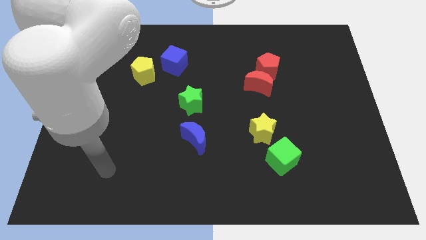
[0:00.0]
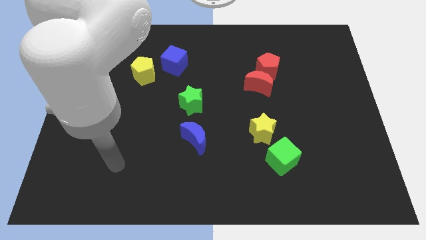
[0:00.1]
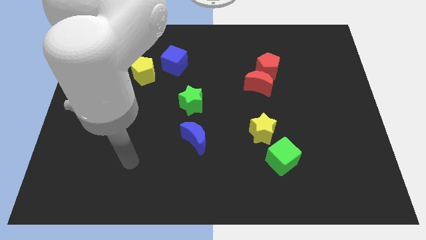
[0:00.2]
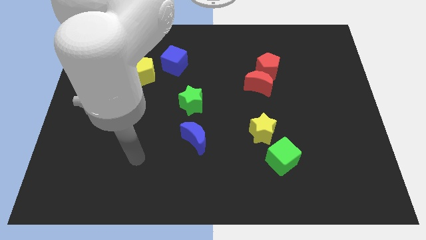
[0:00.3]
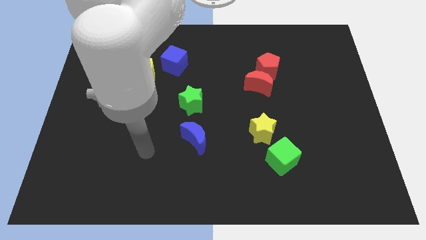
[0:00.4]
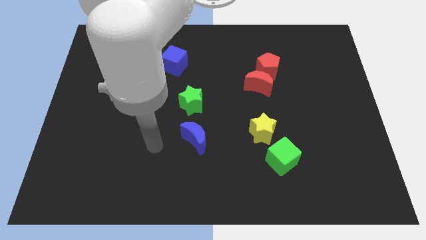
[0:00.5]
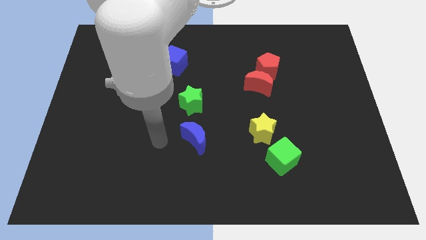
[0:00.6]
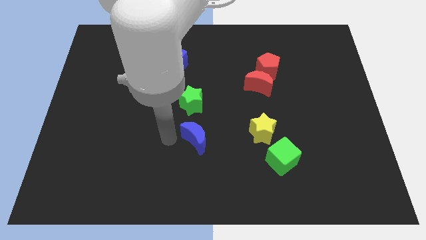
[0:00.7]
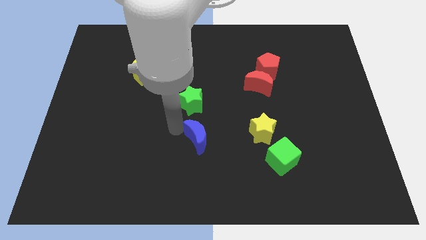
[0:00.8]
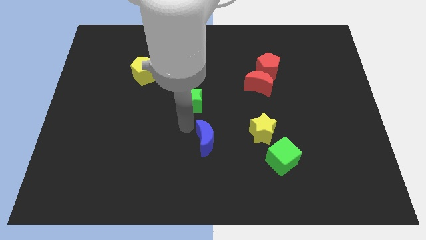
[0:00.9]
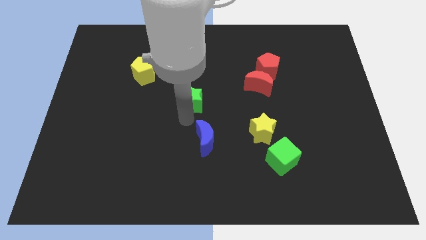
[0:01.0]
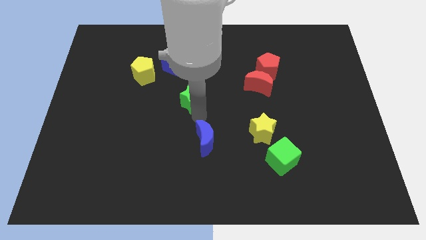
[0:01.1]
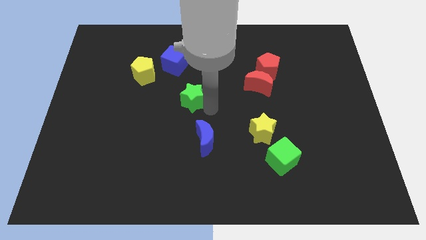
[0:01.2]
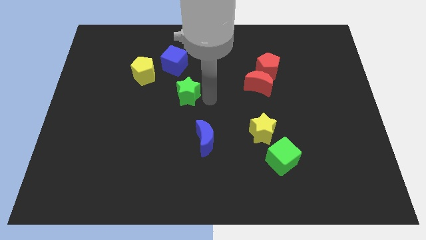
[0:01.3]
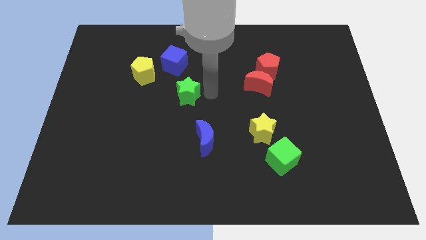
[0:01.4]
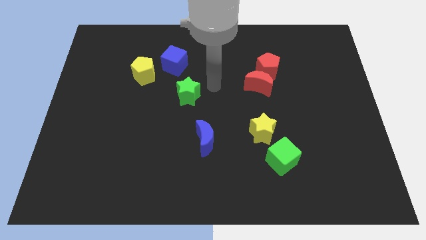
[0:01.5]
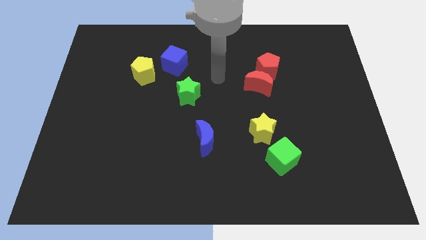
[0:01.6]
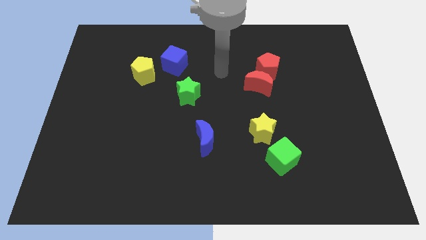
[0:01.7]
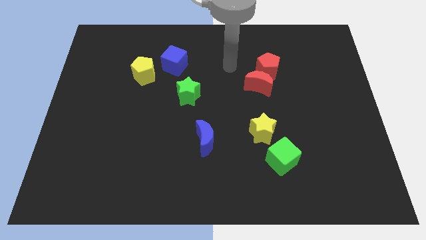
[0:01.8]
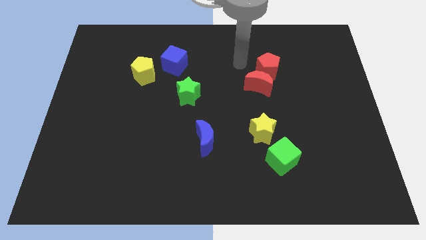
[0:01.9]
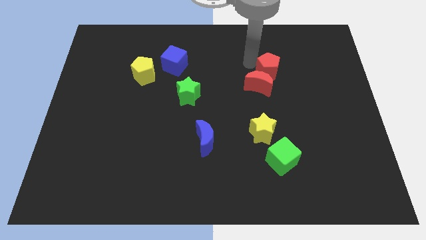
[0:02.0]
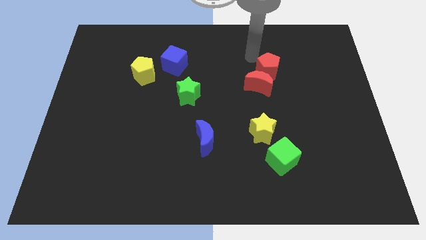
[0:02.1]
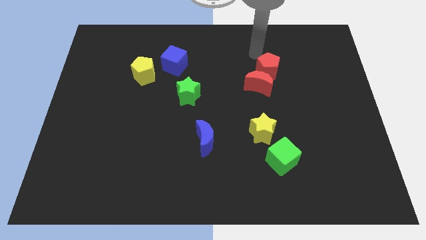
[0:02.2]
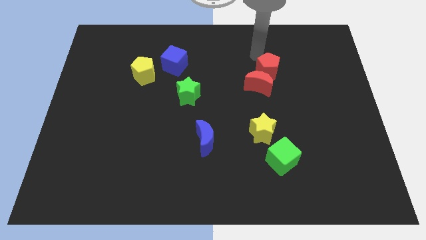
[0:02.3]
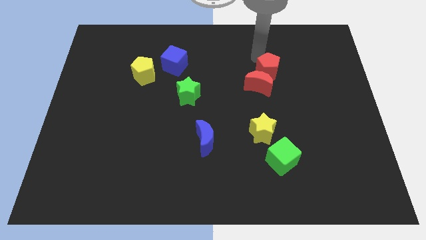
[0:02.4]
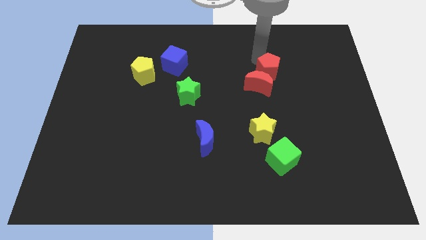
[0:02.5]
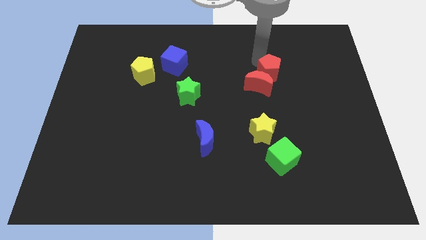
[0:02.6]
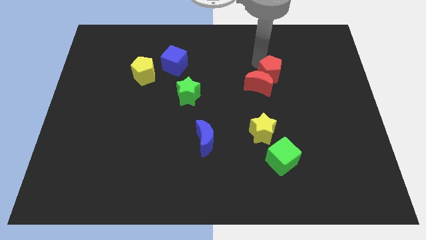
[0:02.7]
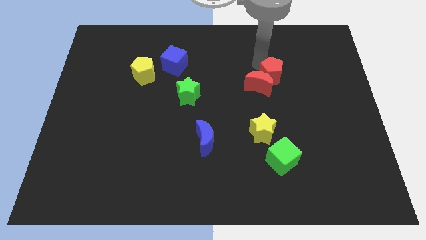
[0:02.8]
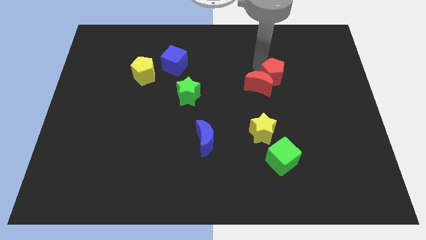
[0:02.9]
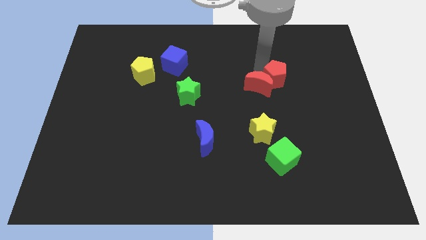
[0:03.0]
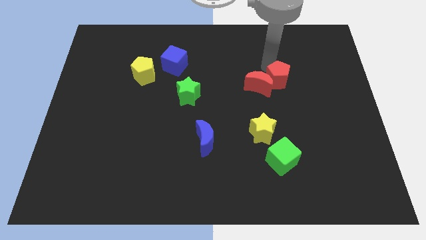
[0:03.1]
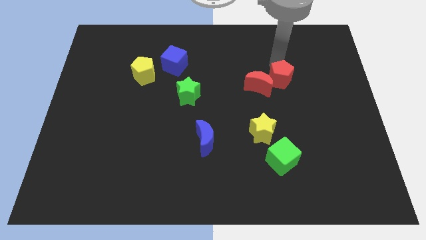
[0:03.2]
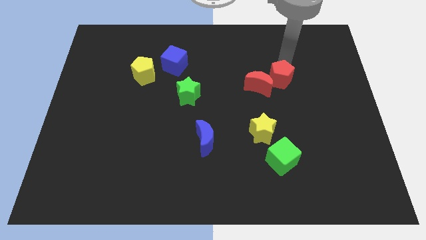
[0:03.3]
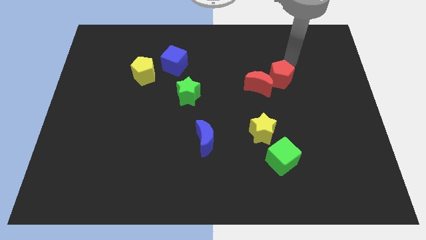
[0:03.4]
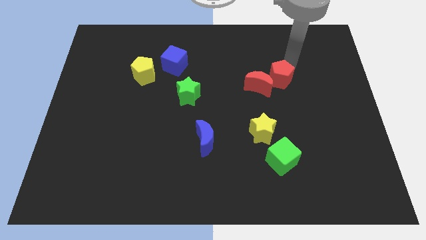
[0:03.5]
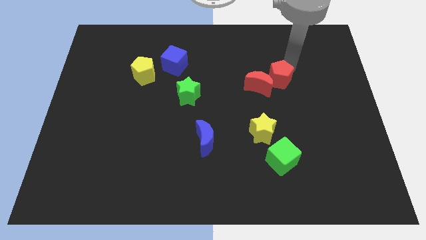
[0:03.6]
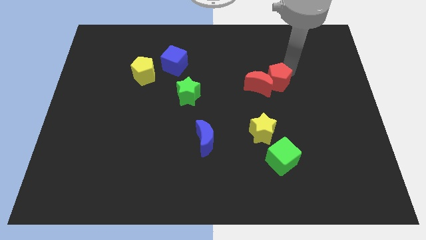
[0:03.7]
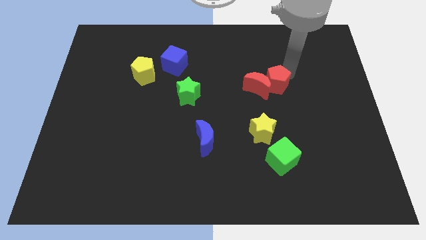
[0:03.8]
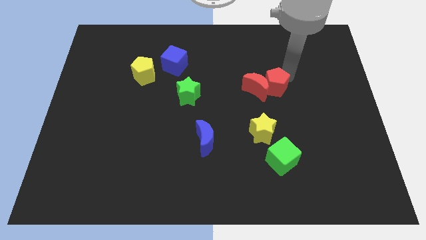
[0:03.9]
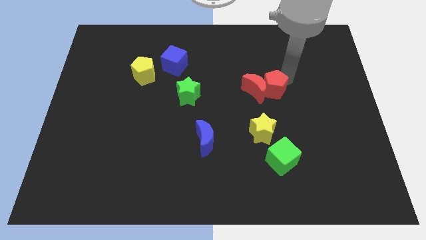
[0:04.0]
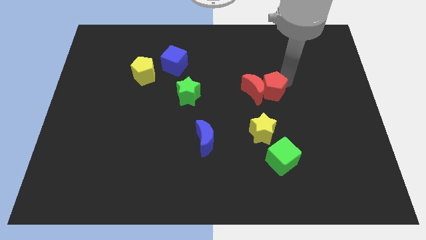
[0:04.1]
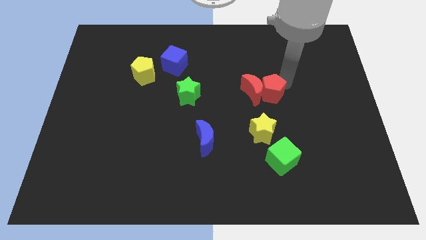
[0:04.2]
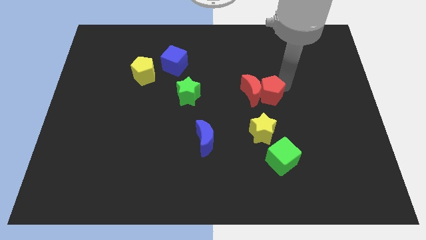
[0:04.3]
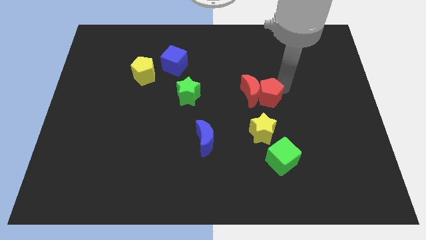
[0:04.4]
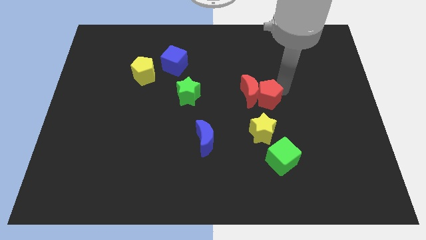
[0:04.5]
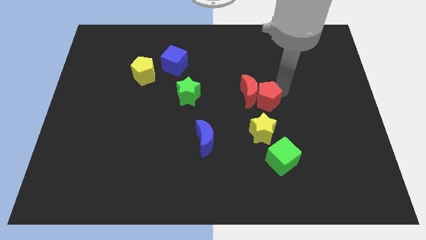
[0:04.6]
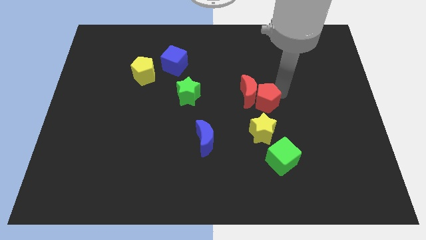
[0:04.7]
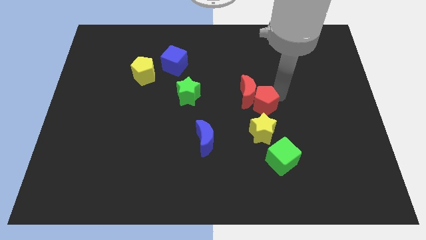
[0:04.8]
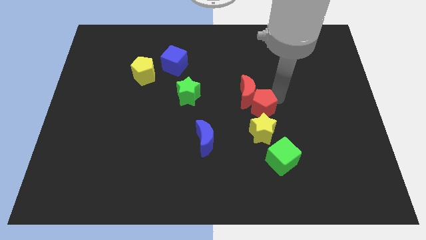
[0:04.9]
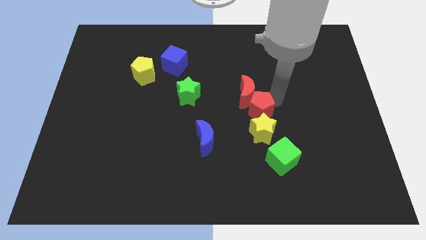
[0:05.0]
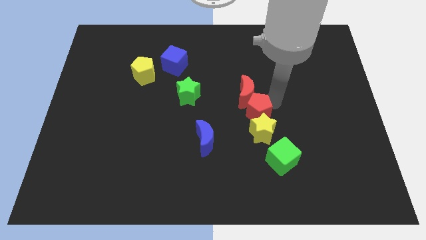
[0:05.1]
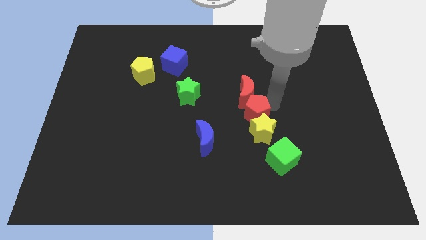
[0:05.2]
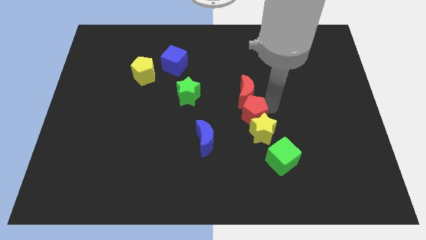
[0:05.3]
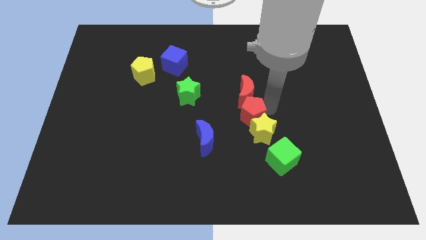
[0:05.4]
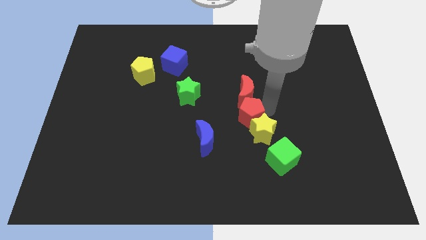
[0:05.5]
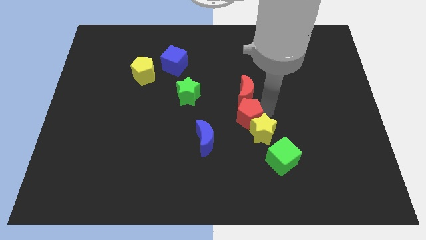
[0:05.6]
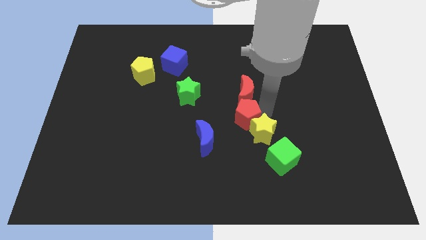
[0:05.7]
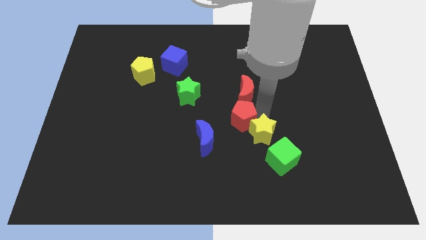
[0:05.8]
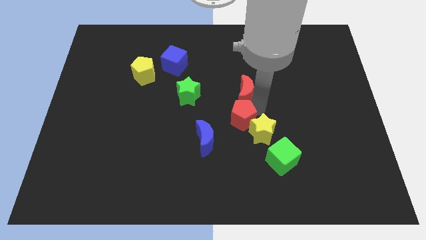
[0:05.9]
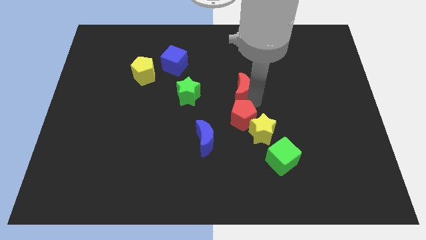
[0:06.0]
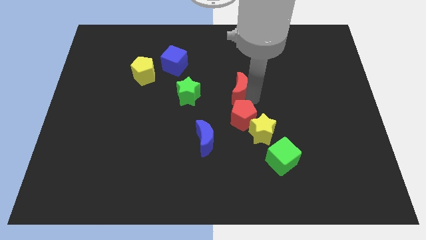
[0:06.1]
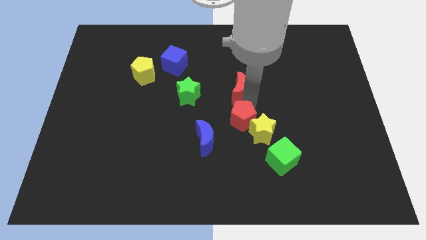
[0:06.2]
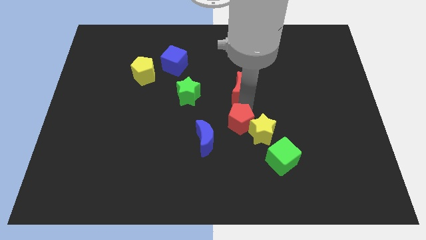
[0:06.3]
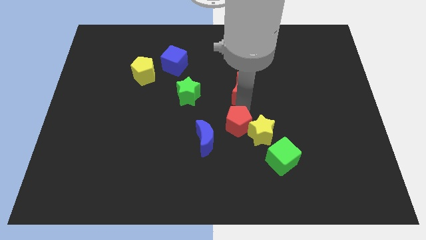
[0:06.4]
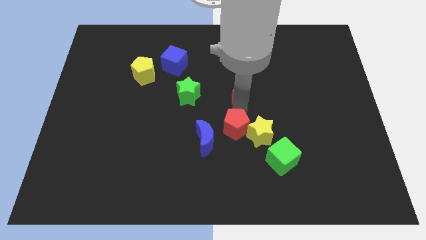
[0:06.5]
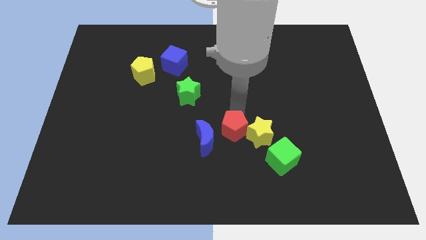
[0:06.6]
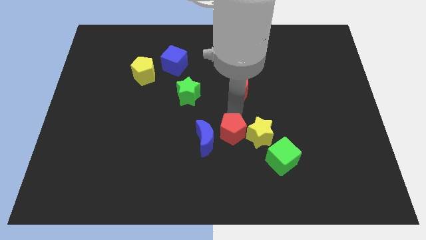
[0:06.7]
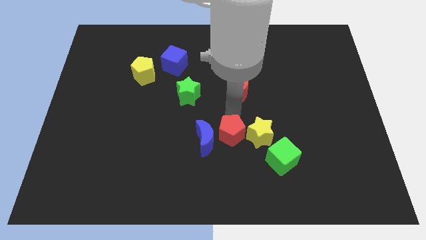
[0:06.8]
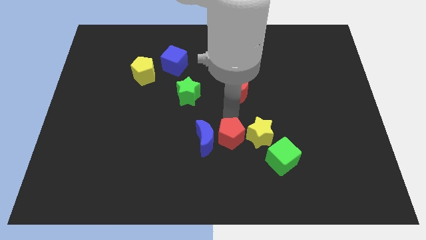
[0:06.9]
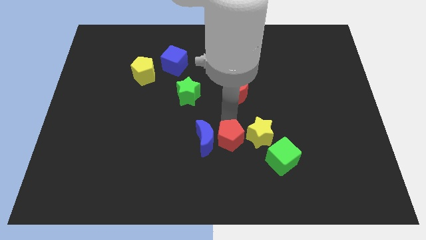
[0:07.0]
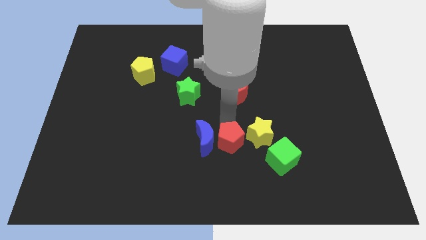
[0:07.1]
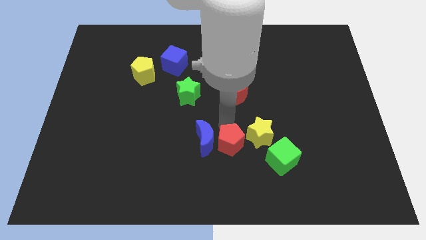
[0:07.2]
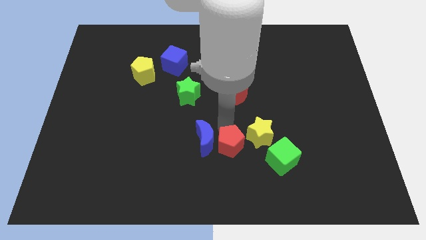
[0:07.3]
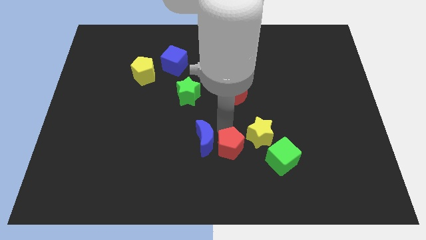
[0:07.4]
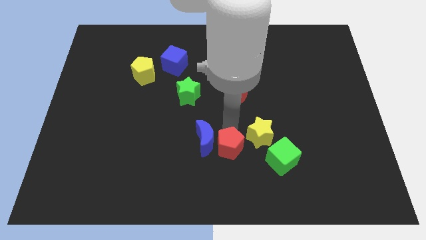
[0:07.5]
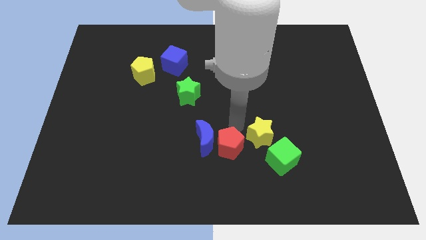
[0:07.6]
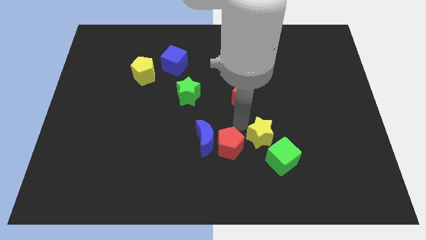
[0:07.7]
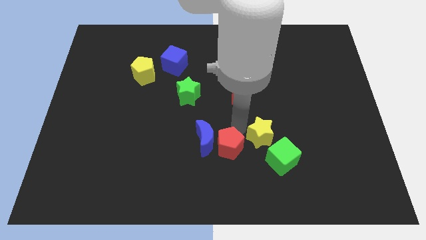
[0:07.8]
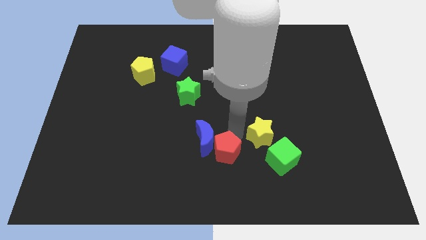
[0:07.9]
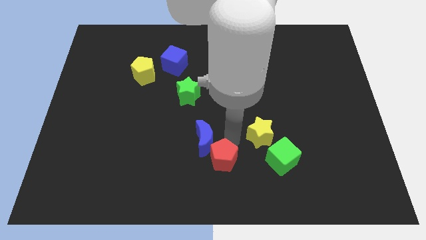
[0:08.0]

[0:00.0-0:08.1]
move the red pentagon to the bottom
